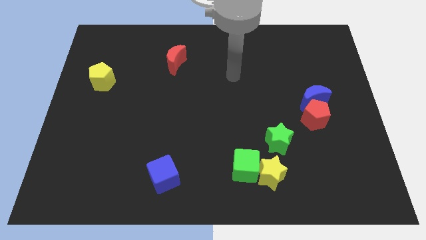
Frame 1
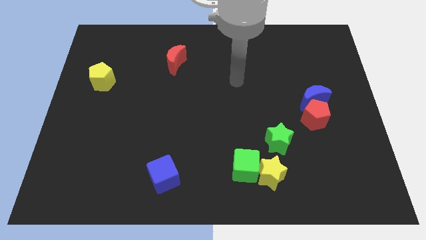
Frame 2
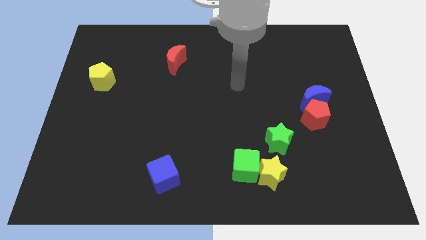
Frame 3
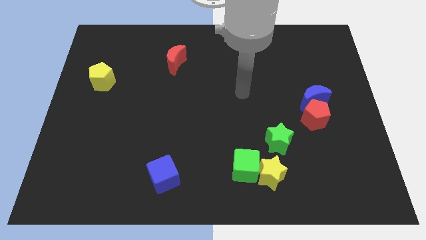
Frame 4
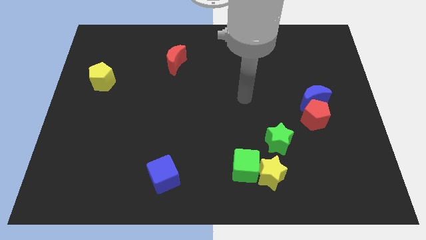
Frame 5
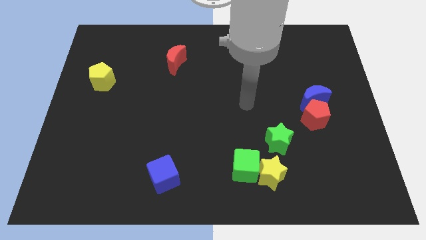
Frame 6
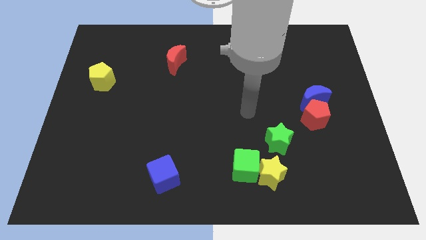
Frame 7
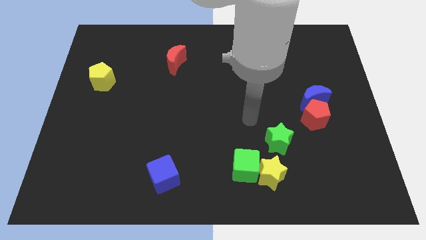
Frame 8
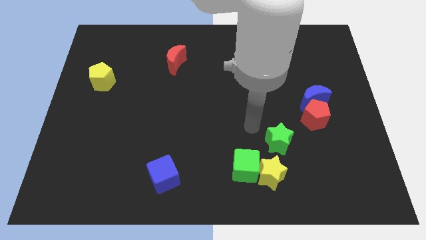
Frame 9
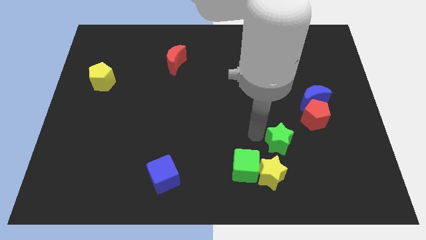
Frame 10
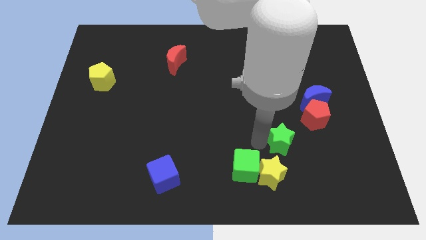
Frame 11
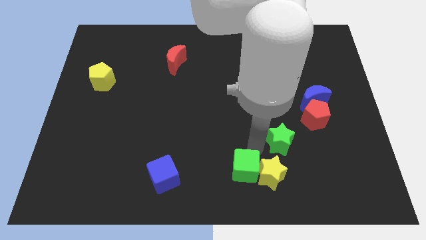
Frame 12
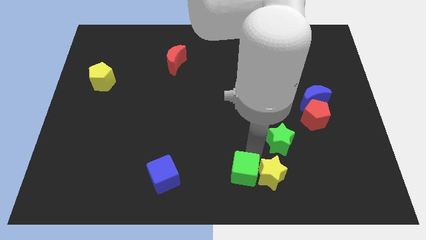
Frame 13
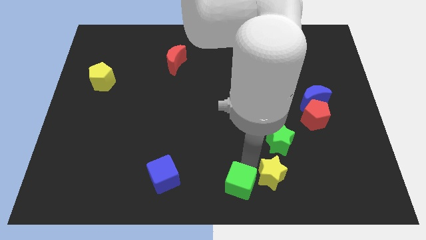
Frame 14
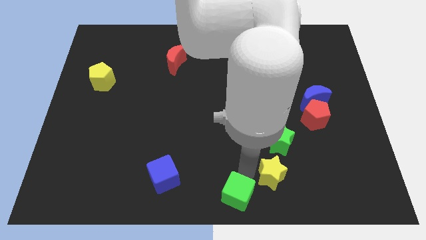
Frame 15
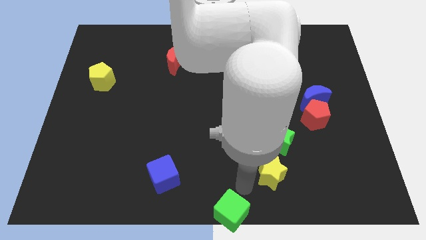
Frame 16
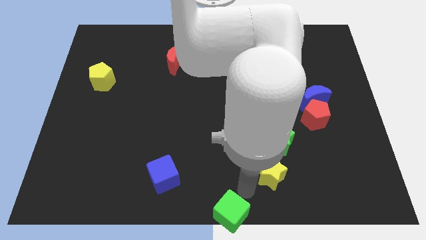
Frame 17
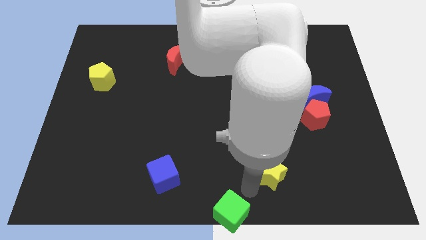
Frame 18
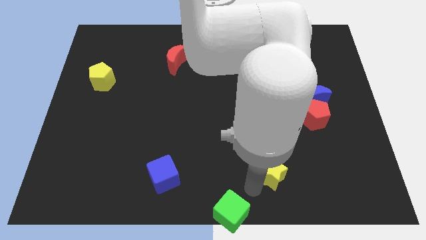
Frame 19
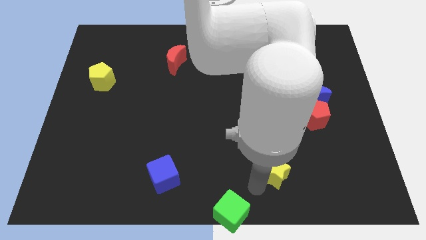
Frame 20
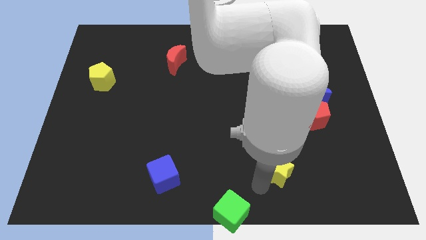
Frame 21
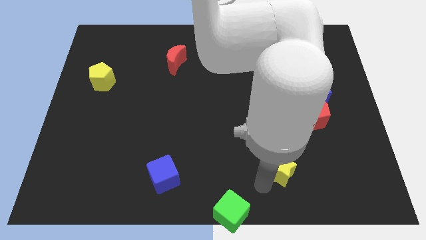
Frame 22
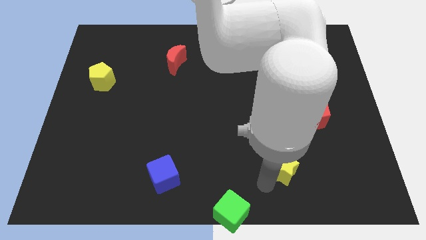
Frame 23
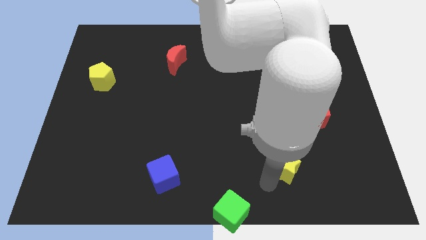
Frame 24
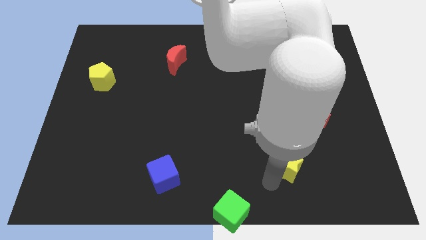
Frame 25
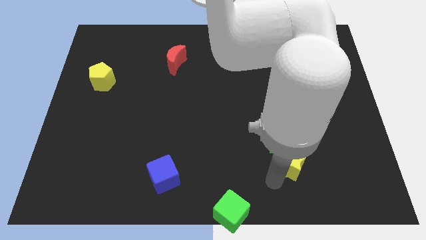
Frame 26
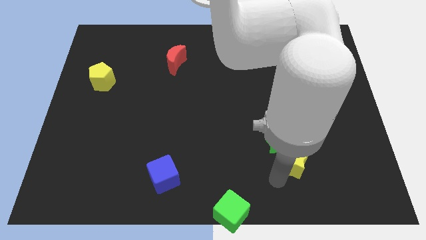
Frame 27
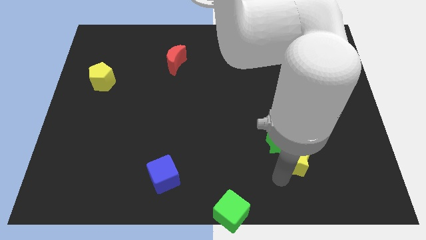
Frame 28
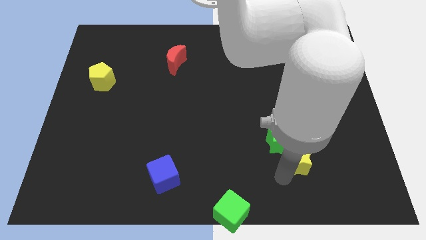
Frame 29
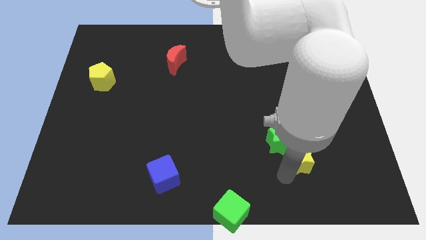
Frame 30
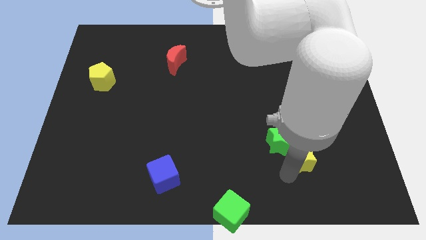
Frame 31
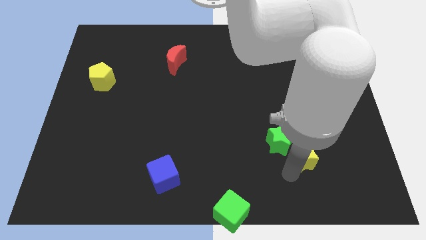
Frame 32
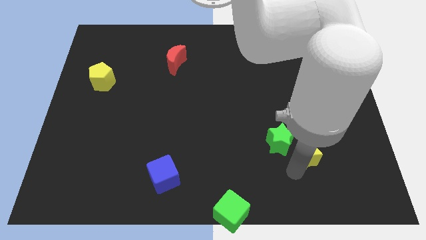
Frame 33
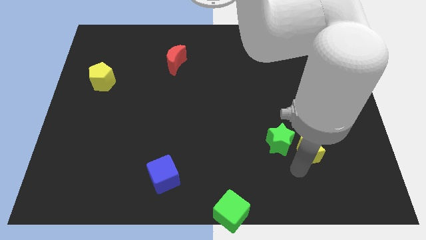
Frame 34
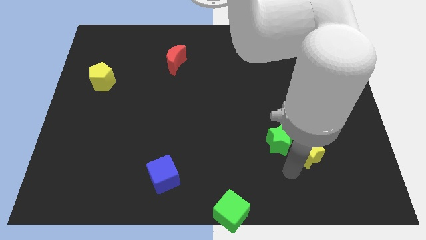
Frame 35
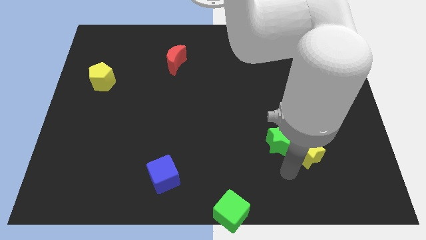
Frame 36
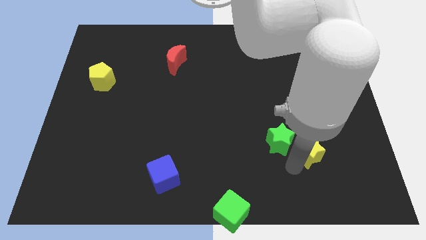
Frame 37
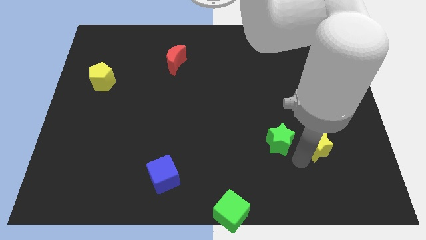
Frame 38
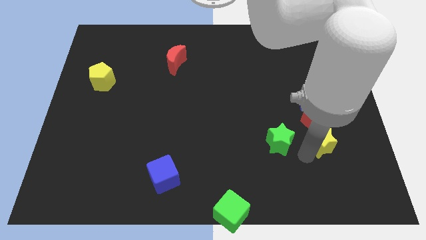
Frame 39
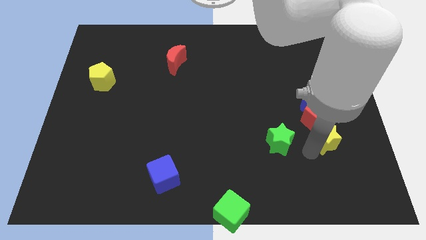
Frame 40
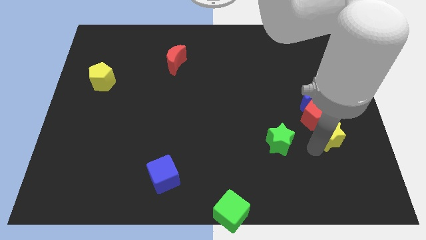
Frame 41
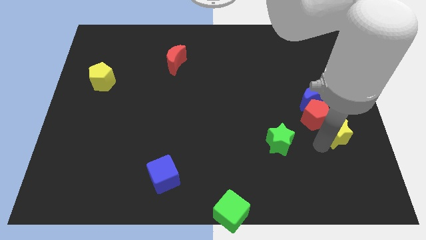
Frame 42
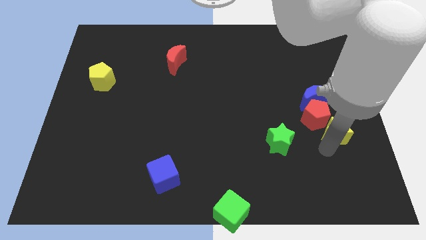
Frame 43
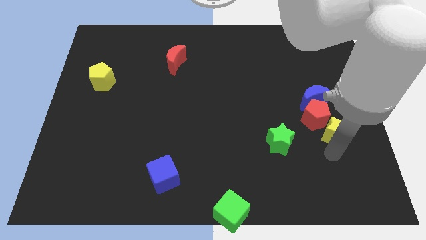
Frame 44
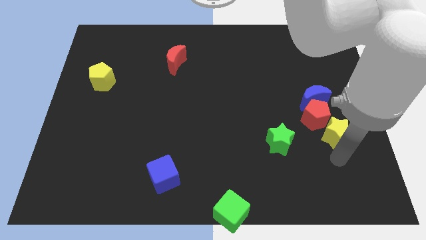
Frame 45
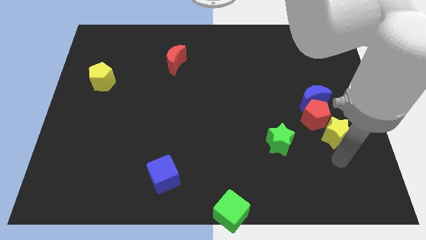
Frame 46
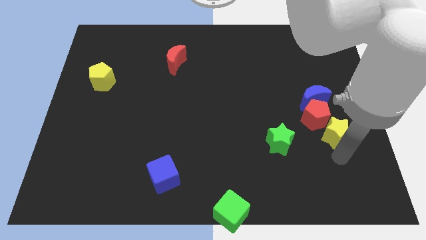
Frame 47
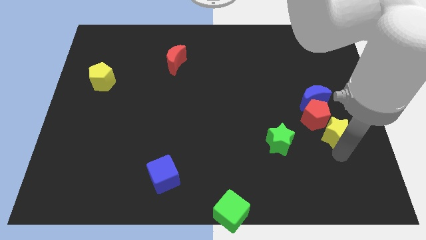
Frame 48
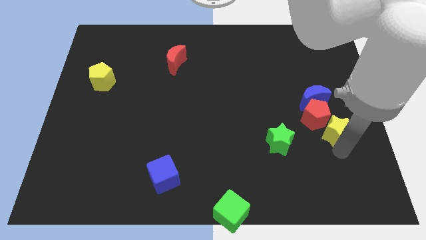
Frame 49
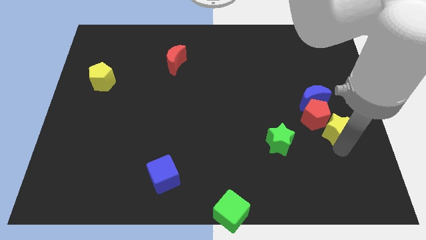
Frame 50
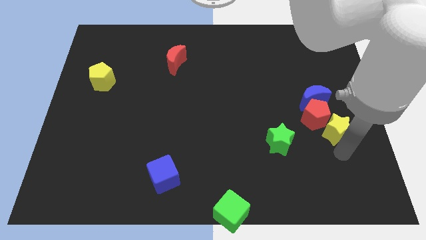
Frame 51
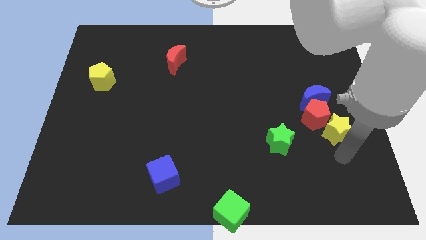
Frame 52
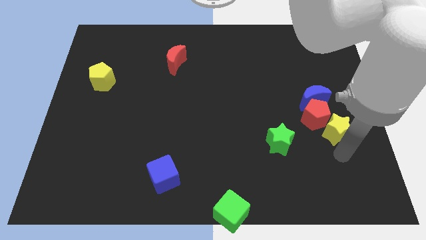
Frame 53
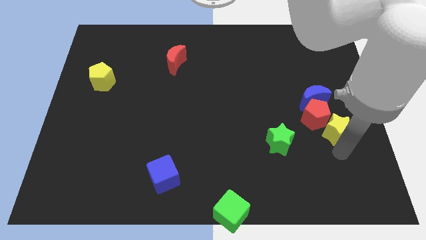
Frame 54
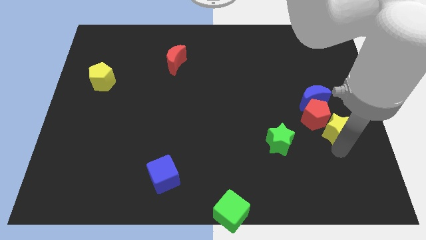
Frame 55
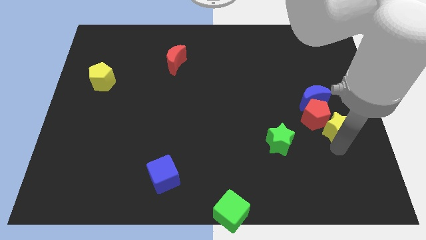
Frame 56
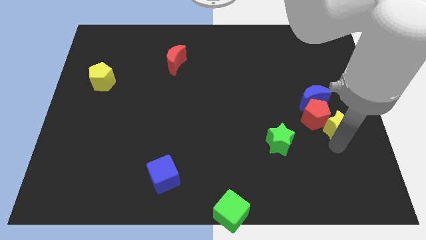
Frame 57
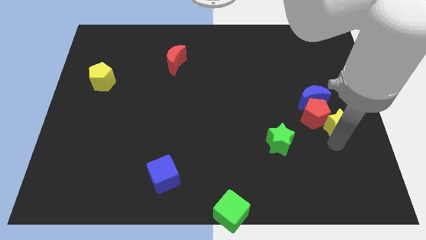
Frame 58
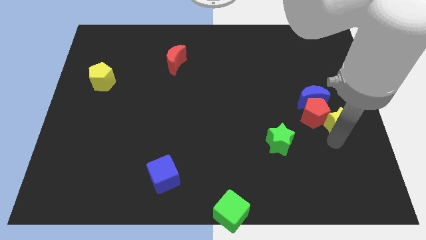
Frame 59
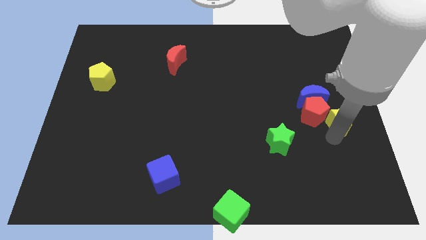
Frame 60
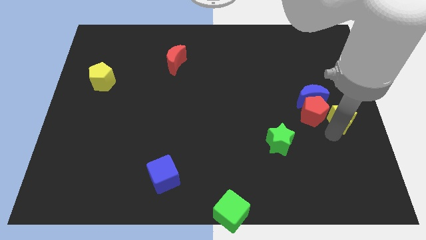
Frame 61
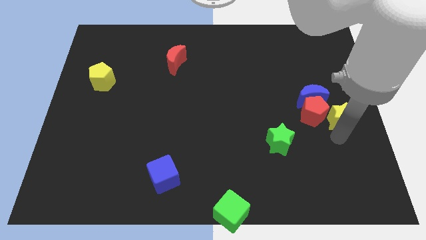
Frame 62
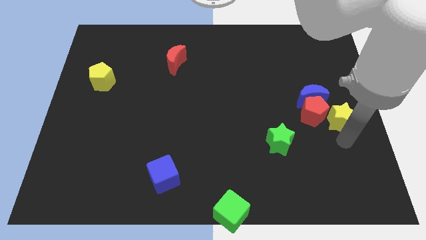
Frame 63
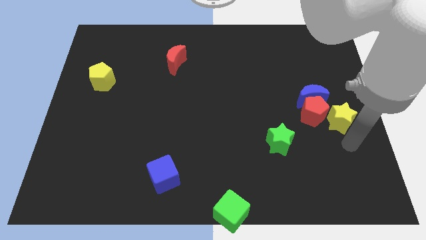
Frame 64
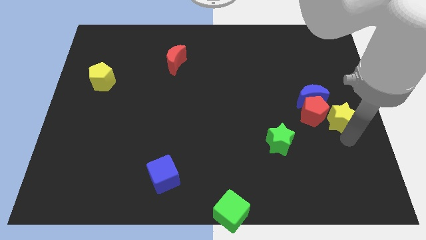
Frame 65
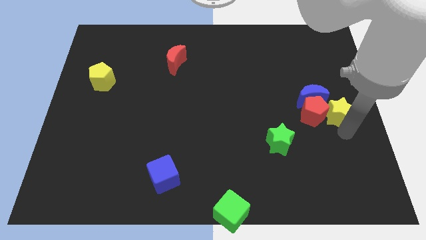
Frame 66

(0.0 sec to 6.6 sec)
move the yellow star diagonally up and to the right of the red pentagon

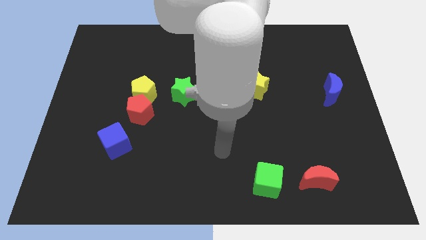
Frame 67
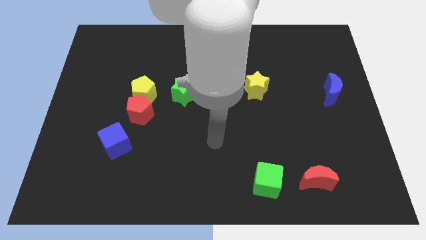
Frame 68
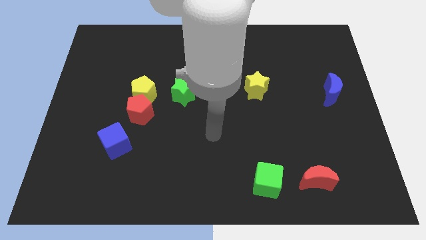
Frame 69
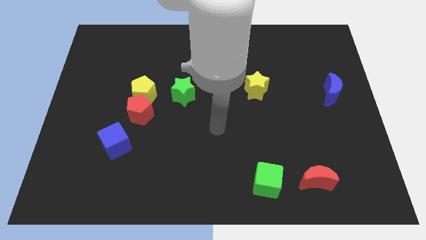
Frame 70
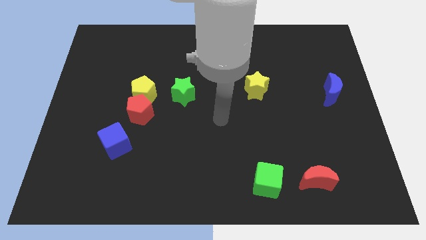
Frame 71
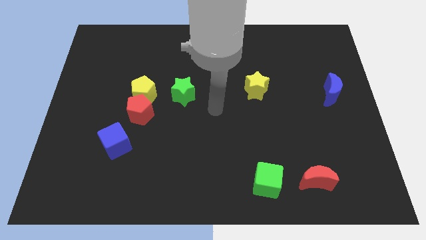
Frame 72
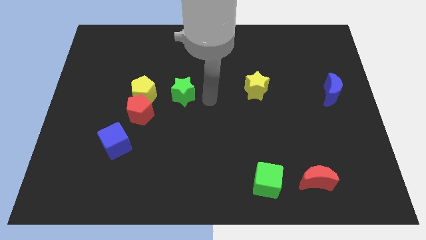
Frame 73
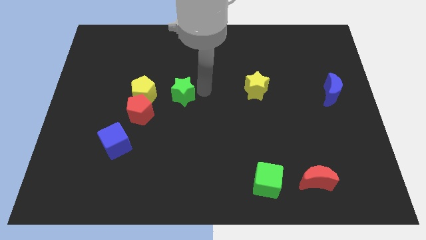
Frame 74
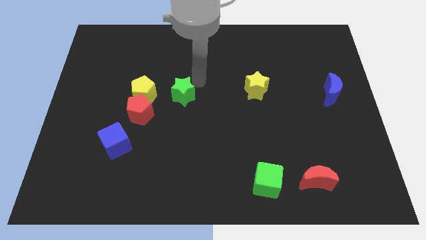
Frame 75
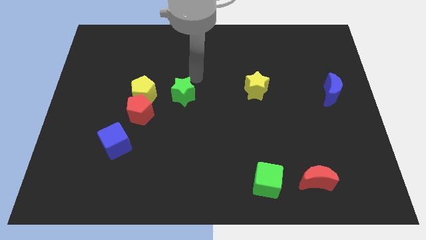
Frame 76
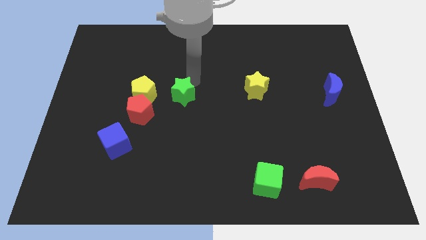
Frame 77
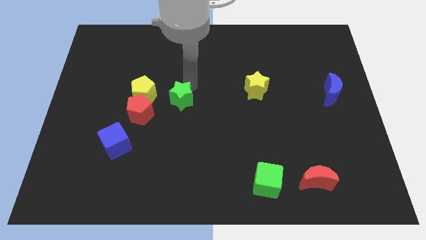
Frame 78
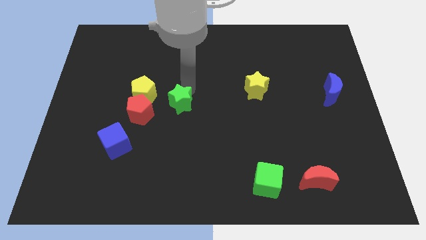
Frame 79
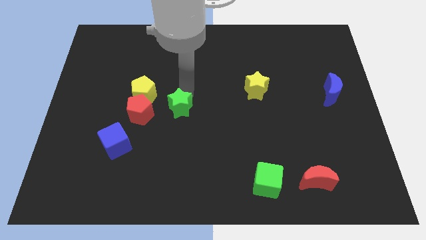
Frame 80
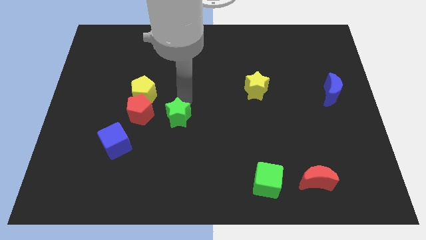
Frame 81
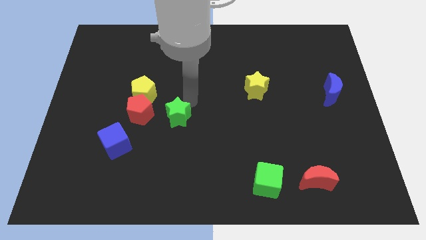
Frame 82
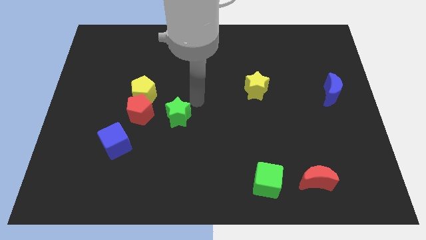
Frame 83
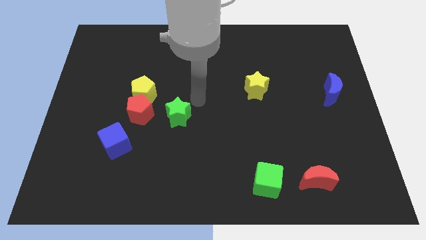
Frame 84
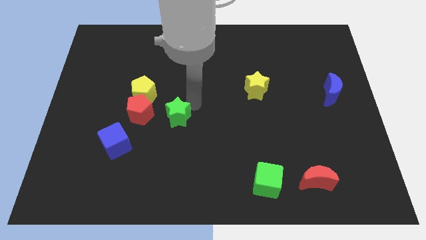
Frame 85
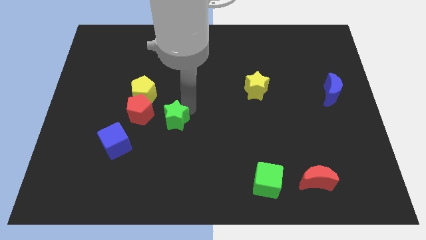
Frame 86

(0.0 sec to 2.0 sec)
put the green star to the bottom right side of the red pentagon
